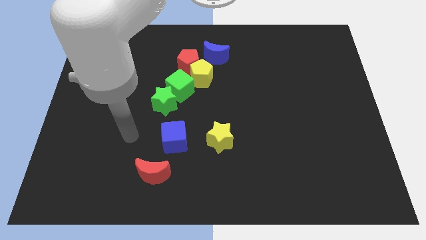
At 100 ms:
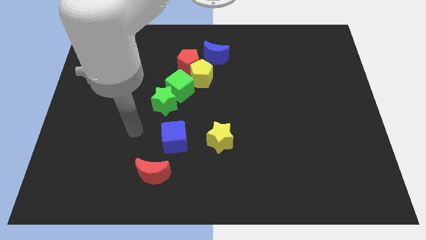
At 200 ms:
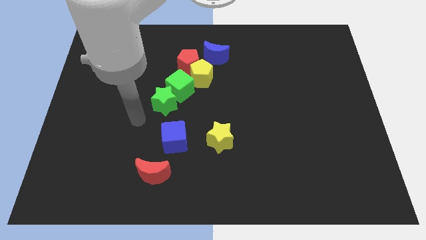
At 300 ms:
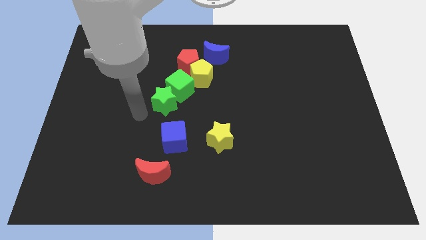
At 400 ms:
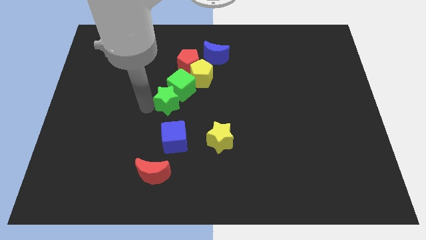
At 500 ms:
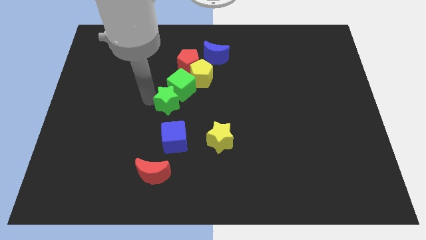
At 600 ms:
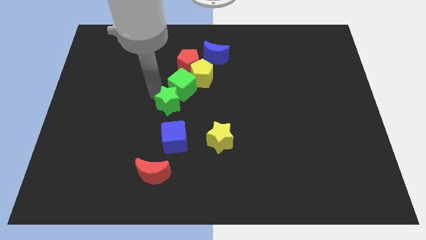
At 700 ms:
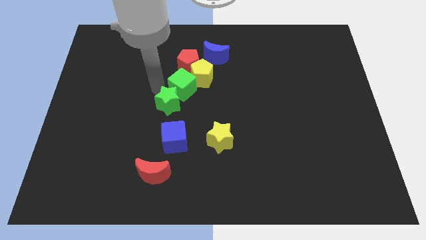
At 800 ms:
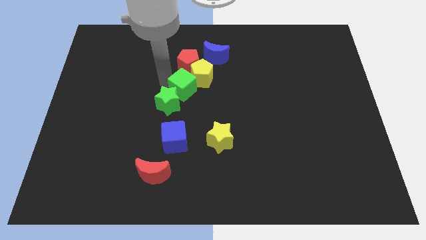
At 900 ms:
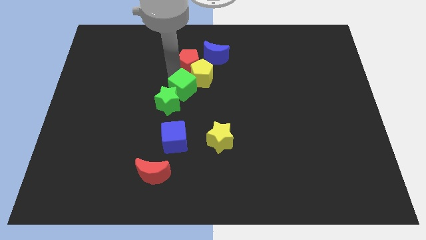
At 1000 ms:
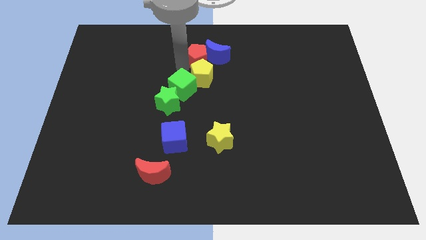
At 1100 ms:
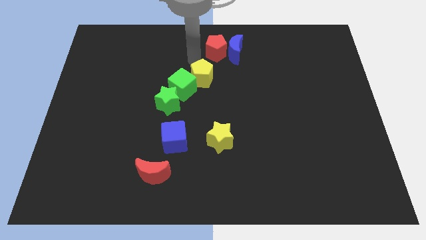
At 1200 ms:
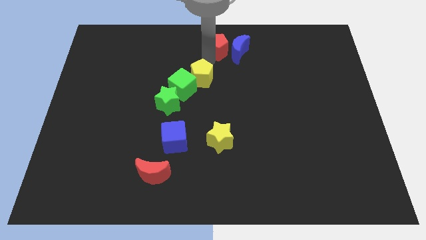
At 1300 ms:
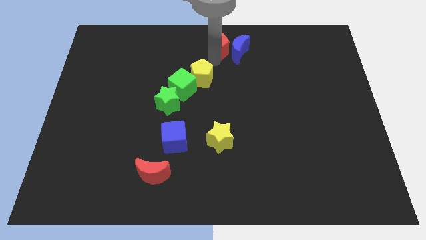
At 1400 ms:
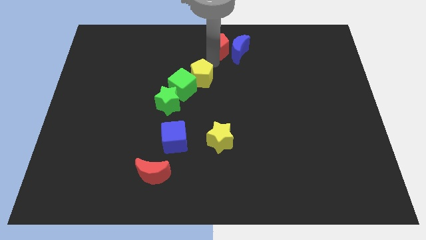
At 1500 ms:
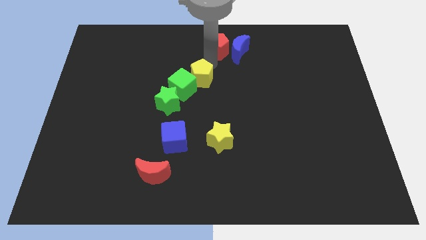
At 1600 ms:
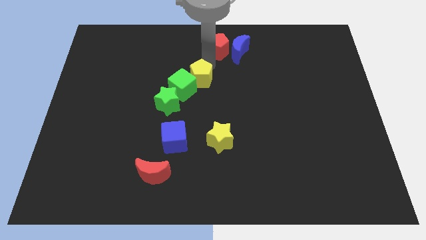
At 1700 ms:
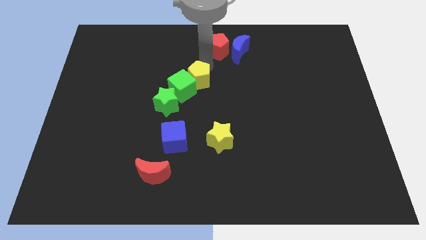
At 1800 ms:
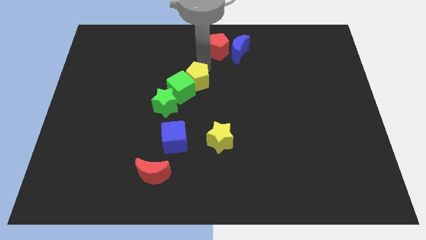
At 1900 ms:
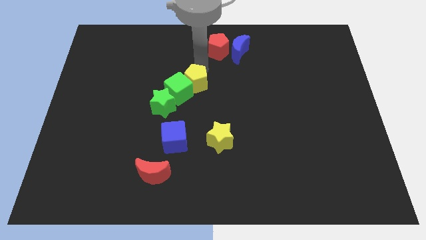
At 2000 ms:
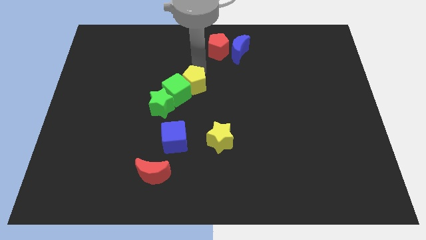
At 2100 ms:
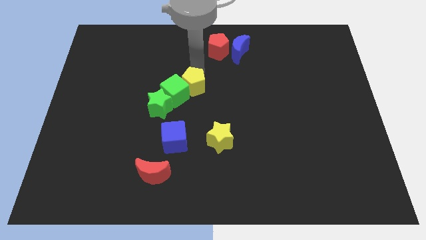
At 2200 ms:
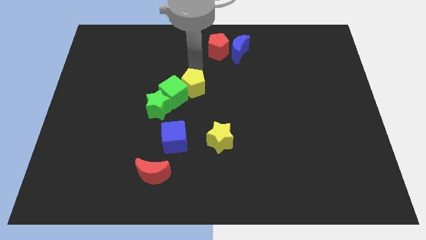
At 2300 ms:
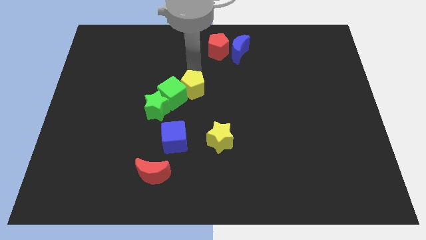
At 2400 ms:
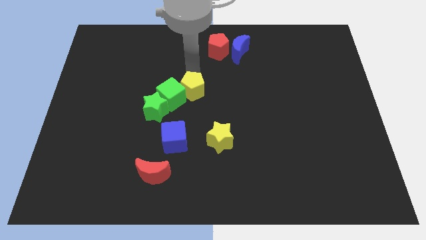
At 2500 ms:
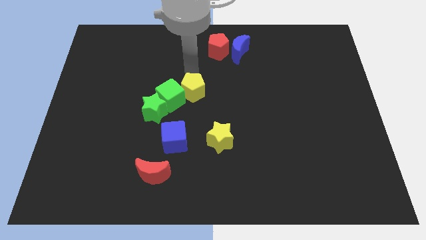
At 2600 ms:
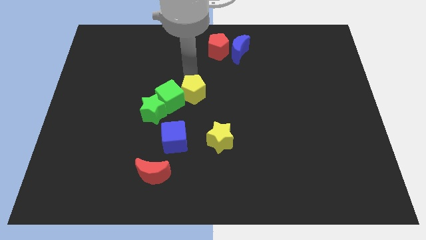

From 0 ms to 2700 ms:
separate the yellow pentagon from the group

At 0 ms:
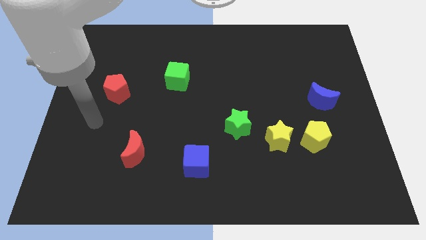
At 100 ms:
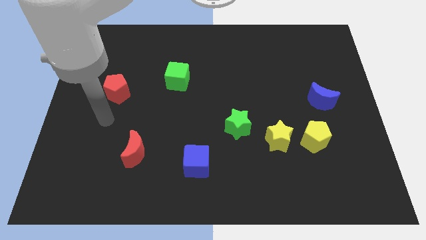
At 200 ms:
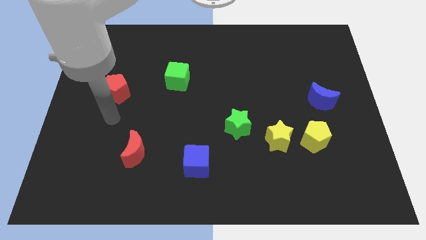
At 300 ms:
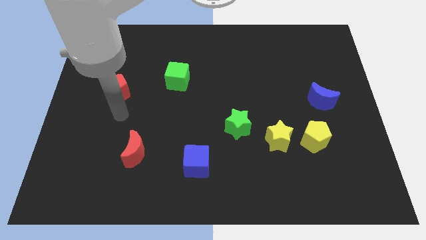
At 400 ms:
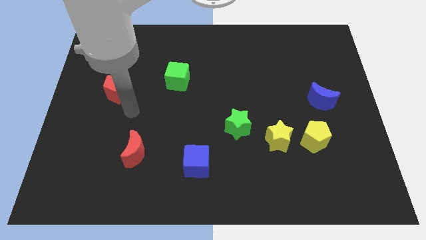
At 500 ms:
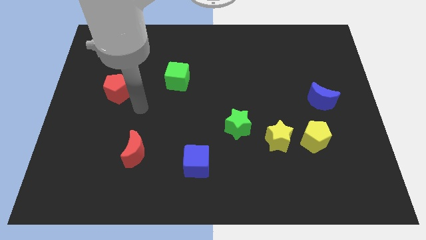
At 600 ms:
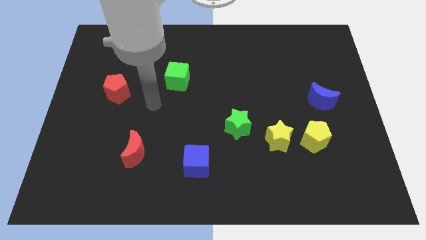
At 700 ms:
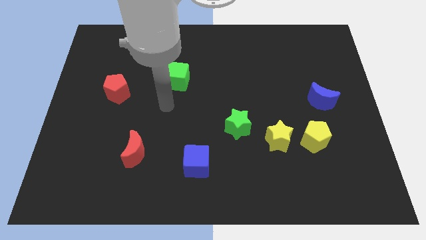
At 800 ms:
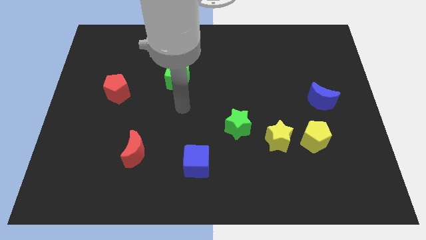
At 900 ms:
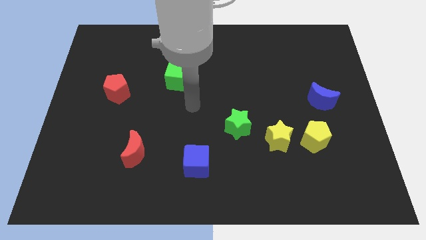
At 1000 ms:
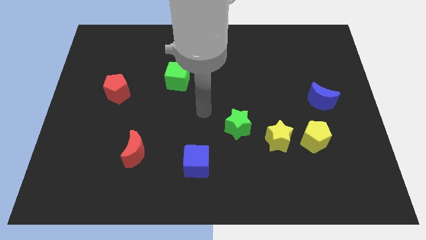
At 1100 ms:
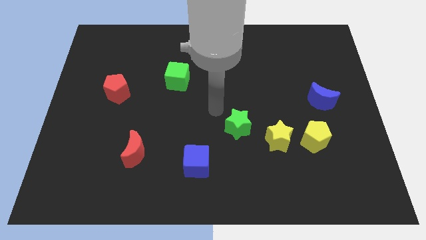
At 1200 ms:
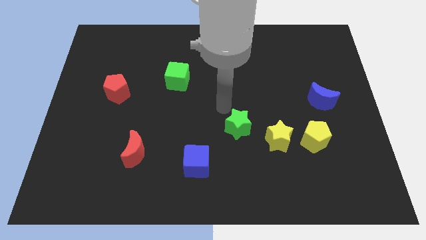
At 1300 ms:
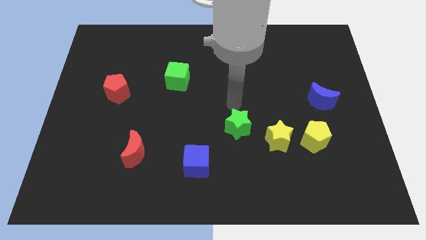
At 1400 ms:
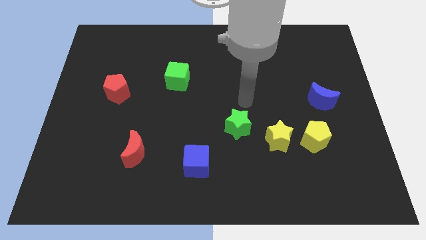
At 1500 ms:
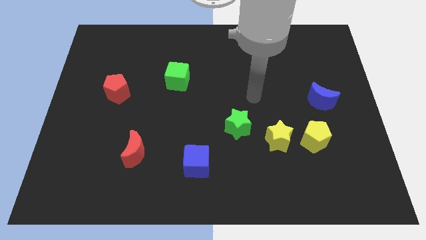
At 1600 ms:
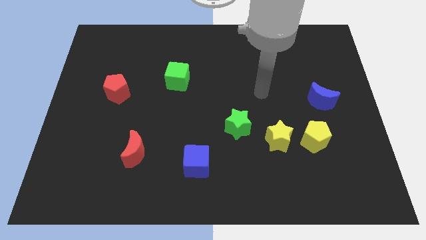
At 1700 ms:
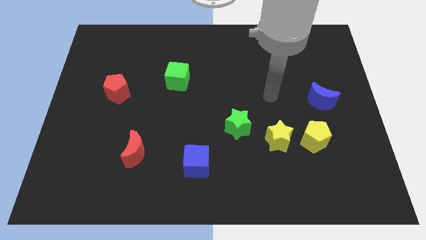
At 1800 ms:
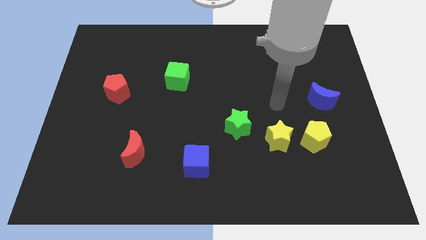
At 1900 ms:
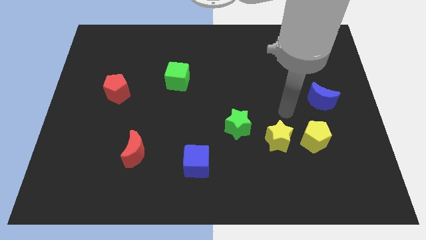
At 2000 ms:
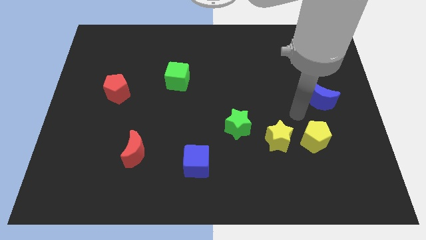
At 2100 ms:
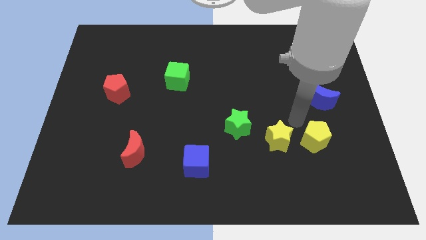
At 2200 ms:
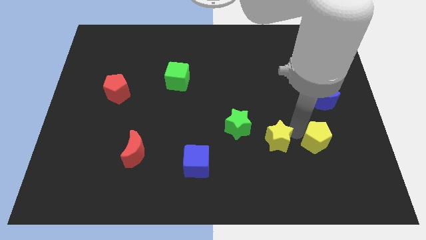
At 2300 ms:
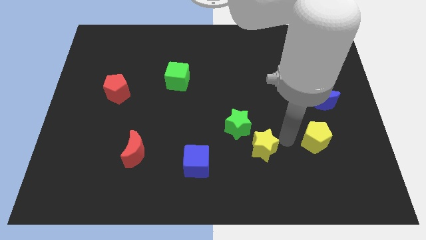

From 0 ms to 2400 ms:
pull the yellow pentagon apart from the yellow star

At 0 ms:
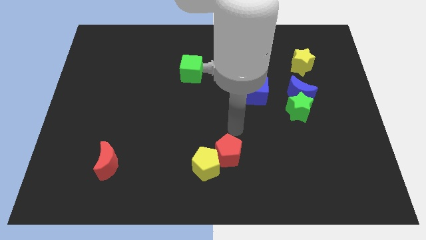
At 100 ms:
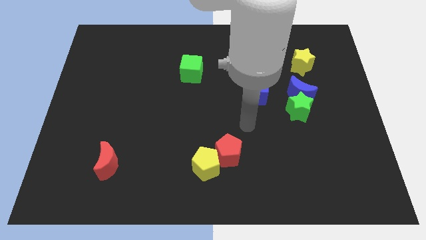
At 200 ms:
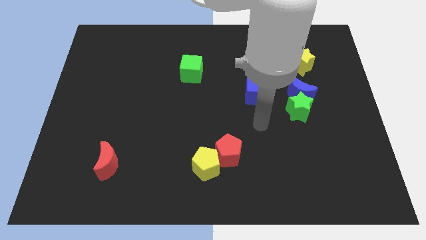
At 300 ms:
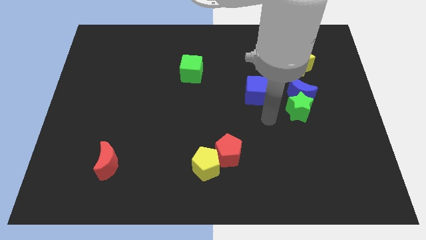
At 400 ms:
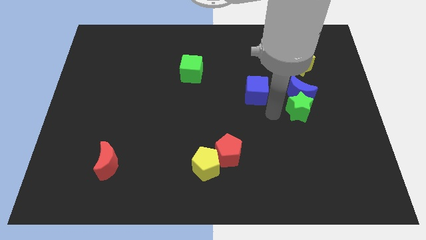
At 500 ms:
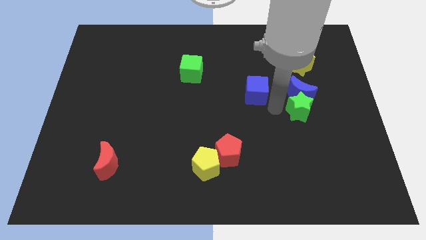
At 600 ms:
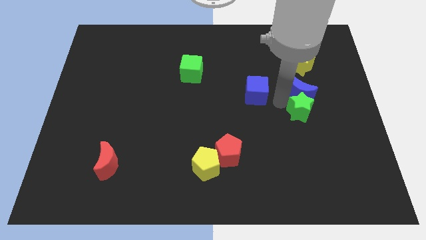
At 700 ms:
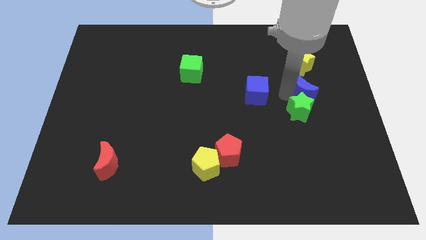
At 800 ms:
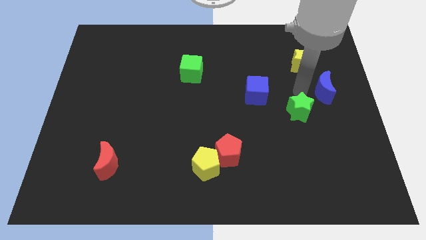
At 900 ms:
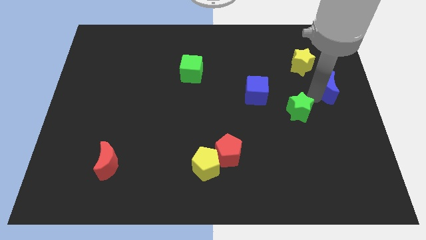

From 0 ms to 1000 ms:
pull the green star apart from the blue moon

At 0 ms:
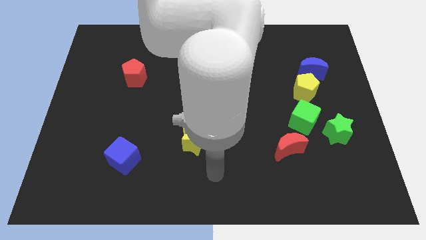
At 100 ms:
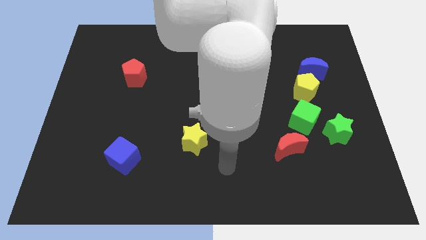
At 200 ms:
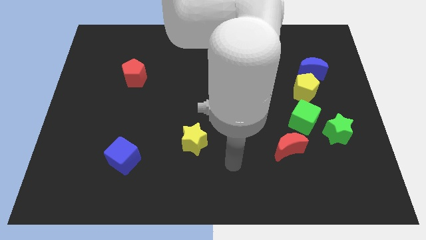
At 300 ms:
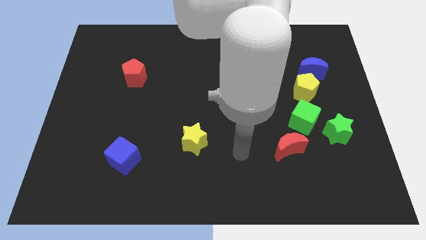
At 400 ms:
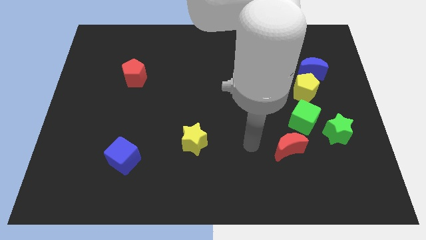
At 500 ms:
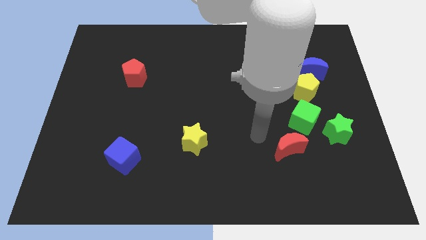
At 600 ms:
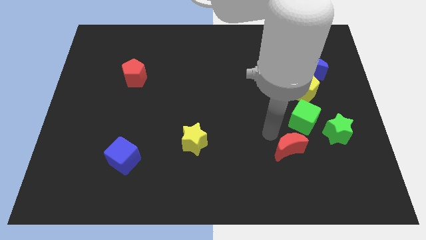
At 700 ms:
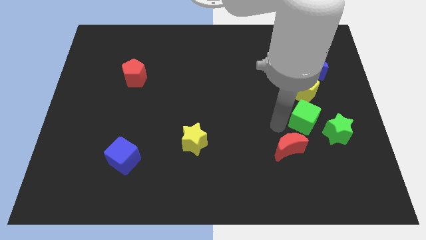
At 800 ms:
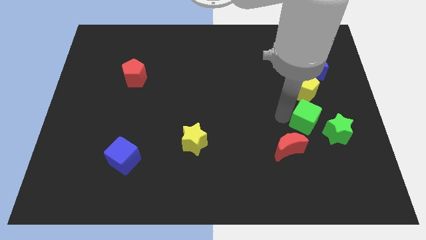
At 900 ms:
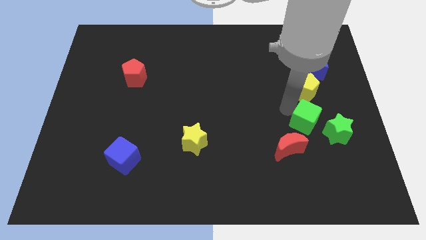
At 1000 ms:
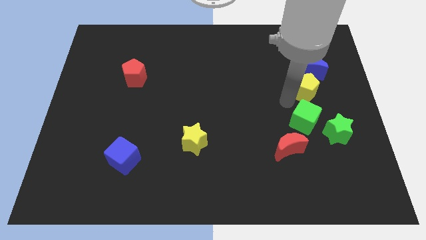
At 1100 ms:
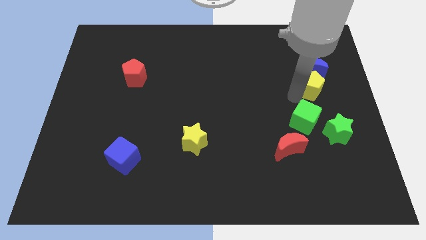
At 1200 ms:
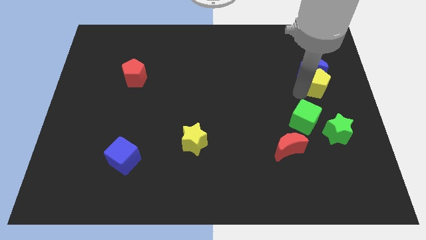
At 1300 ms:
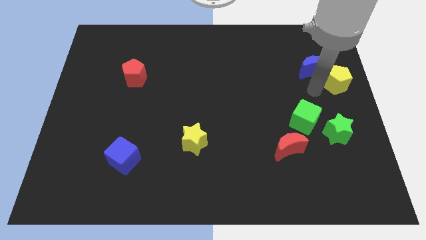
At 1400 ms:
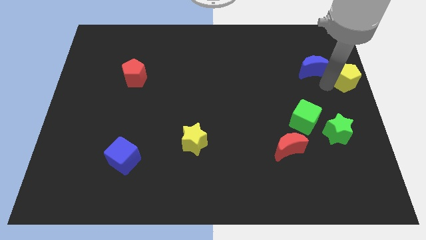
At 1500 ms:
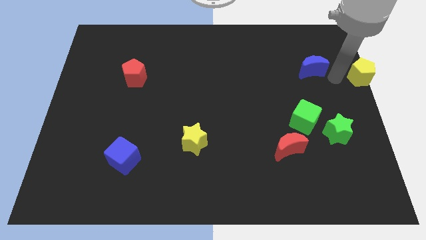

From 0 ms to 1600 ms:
pull the blue moon apart from the yellow pentagon

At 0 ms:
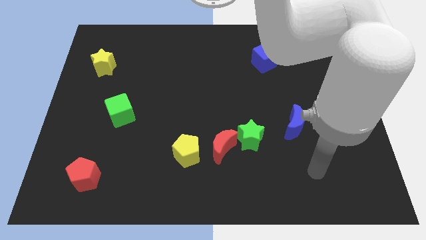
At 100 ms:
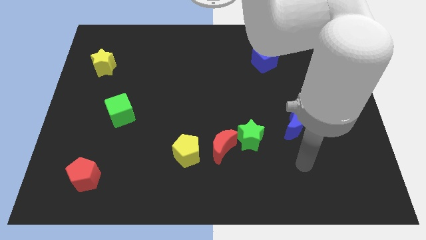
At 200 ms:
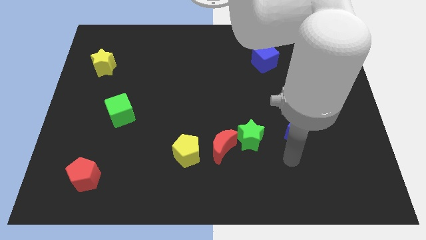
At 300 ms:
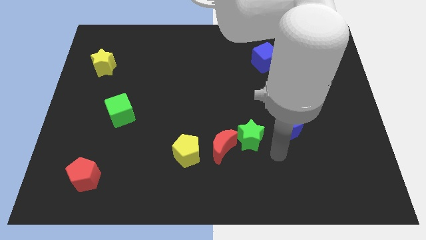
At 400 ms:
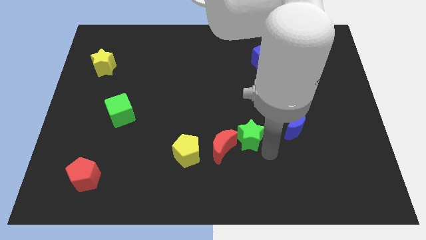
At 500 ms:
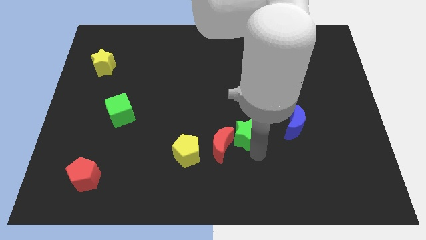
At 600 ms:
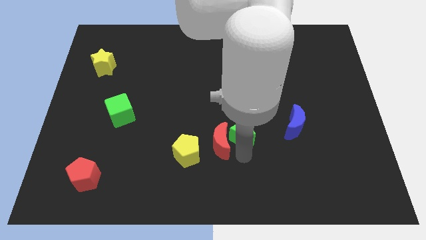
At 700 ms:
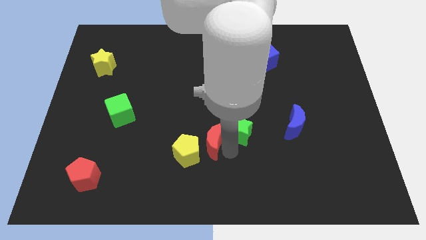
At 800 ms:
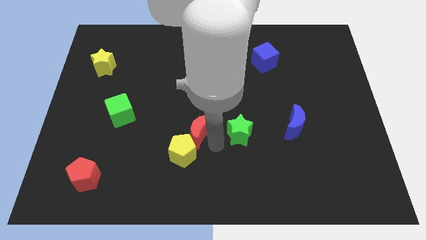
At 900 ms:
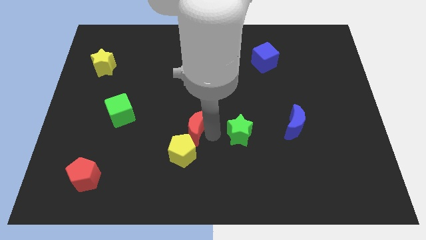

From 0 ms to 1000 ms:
pull the green star apart from the red moon

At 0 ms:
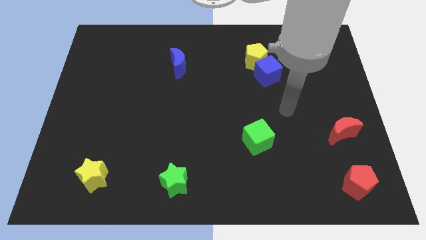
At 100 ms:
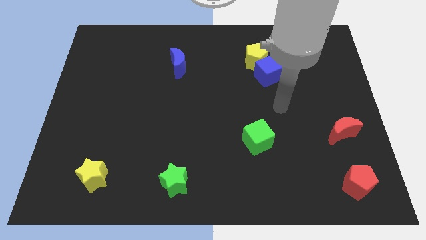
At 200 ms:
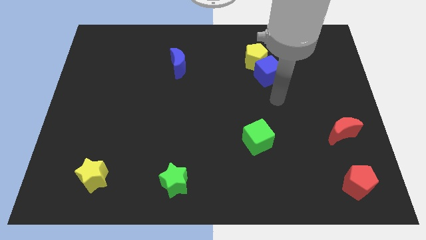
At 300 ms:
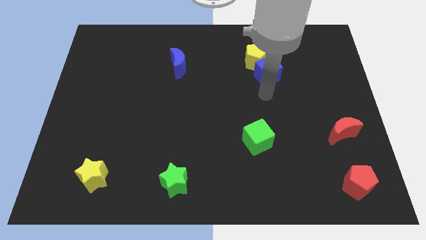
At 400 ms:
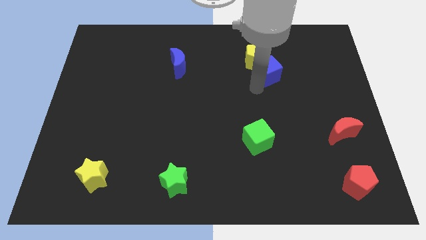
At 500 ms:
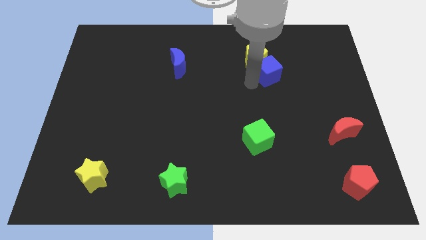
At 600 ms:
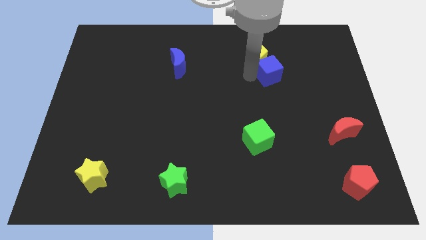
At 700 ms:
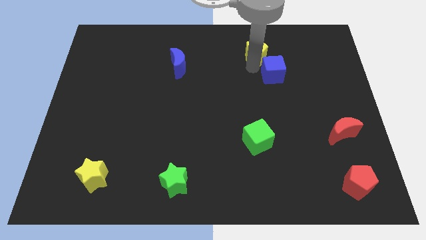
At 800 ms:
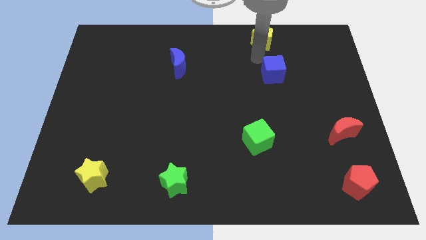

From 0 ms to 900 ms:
pull the blue cube apart from the yellow pentagon
